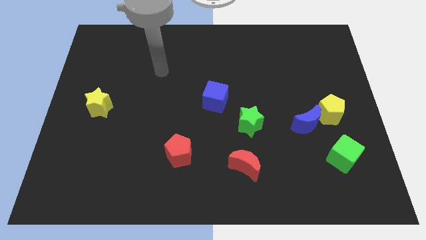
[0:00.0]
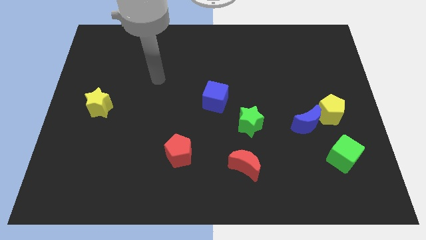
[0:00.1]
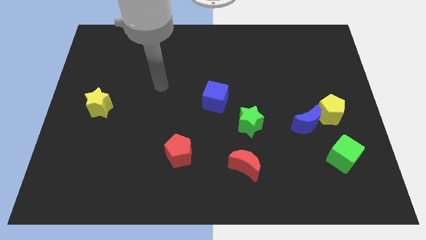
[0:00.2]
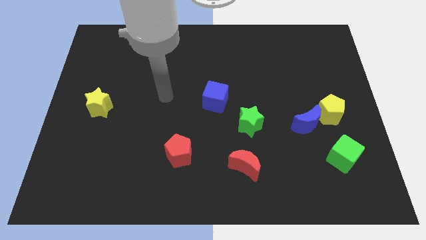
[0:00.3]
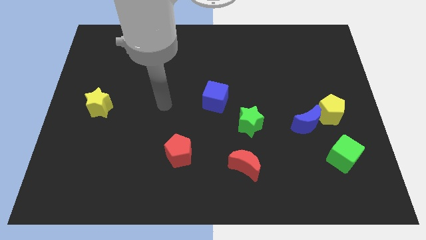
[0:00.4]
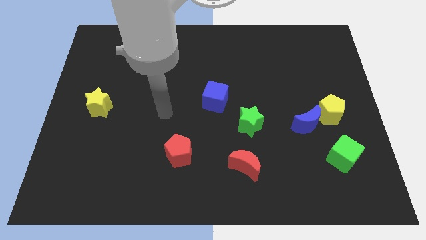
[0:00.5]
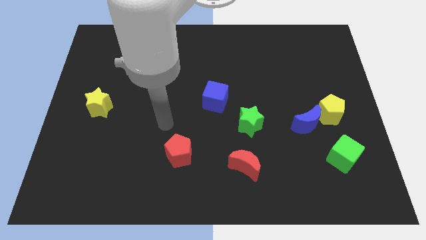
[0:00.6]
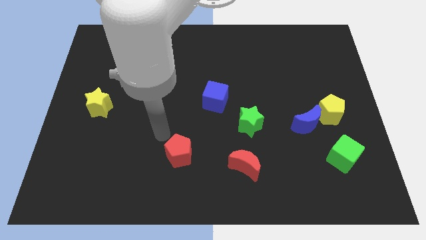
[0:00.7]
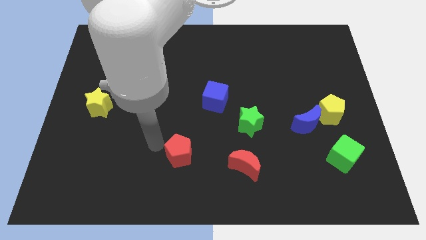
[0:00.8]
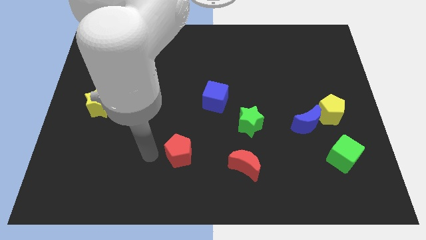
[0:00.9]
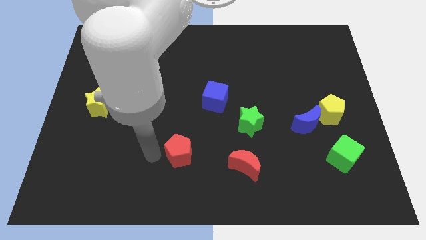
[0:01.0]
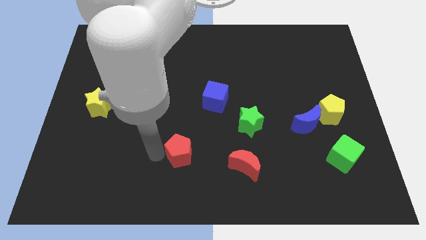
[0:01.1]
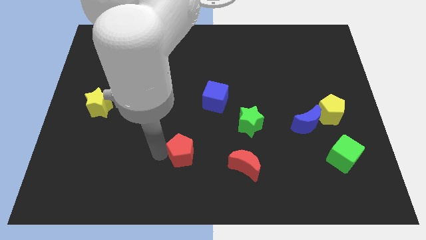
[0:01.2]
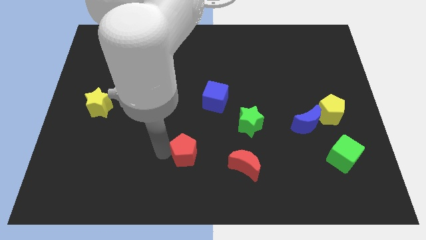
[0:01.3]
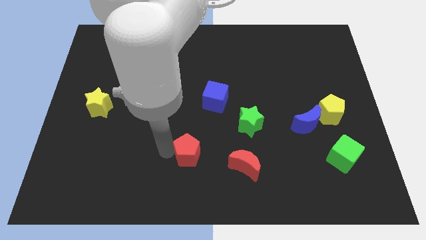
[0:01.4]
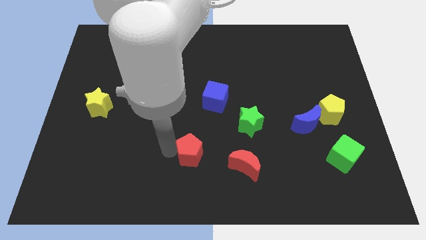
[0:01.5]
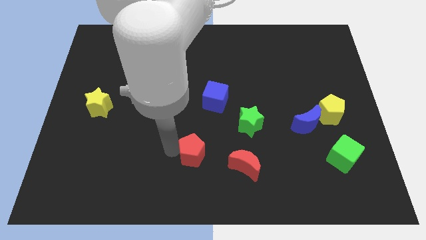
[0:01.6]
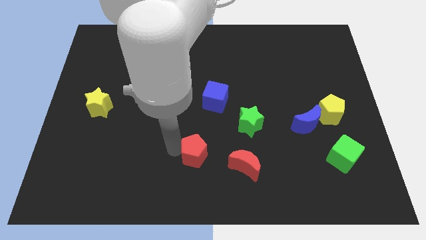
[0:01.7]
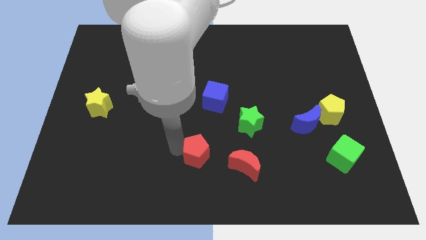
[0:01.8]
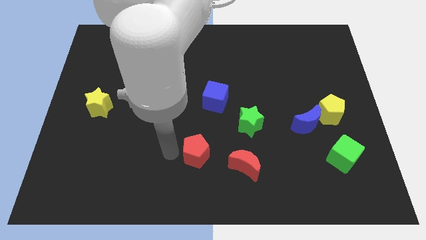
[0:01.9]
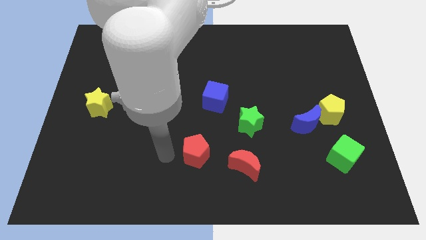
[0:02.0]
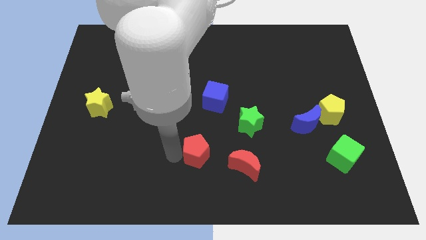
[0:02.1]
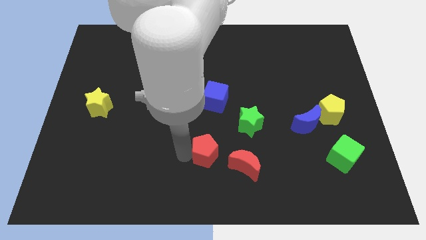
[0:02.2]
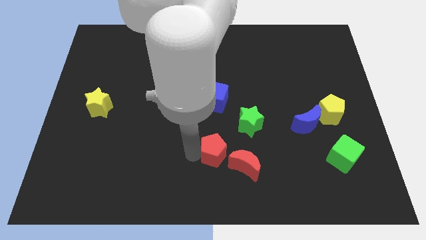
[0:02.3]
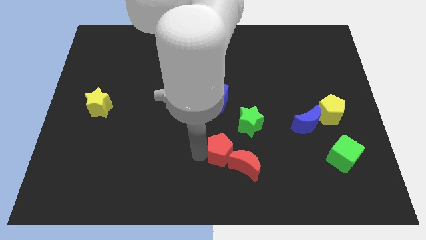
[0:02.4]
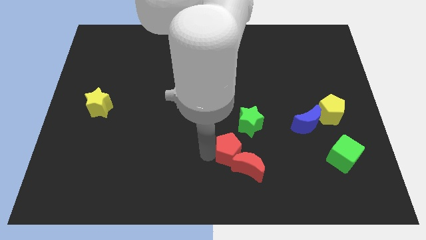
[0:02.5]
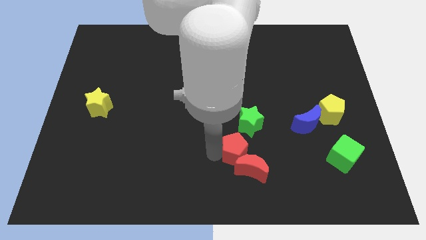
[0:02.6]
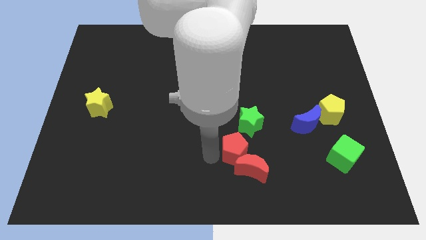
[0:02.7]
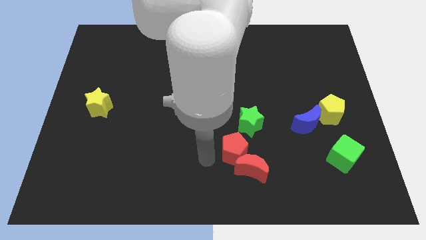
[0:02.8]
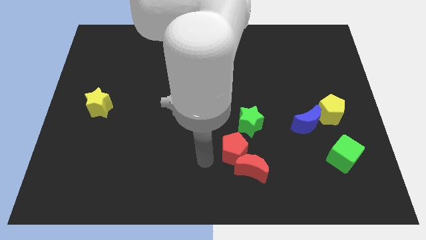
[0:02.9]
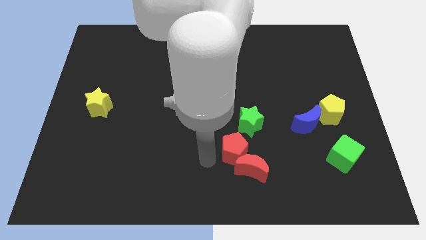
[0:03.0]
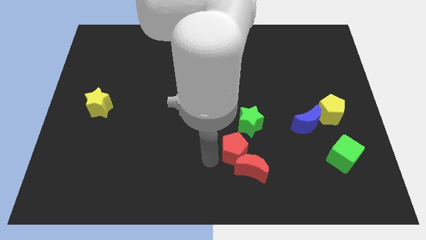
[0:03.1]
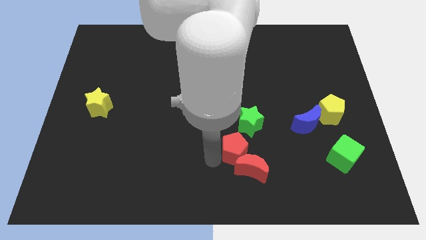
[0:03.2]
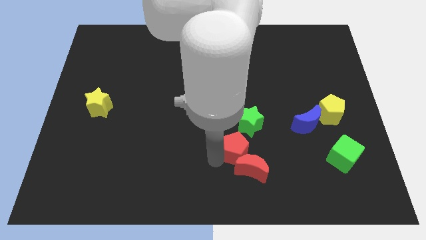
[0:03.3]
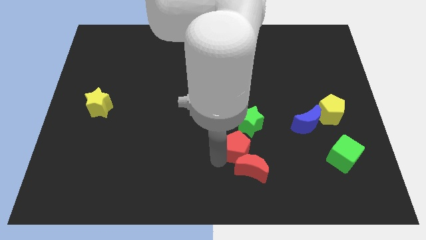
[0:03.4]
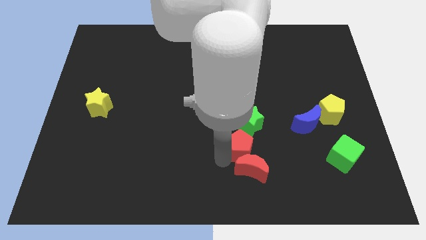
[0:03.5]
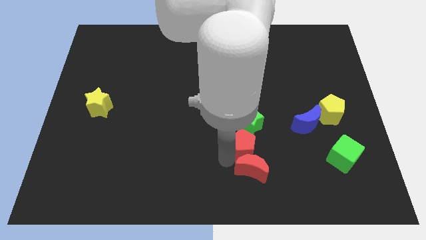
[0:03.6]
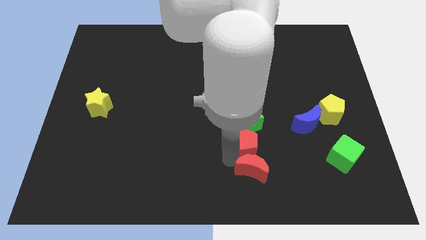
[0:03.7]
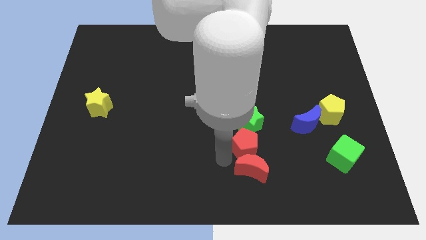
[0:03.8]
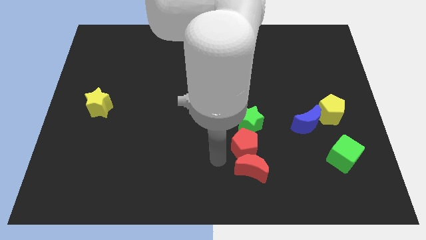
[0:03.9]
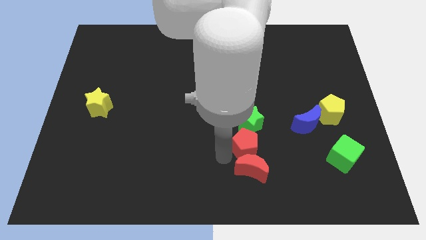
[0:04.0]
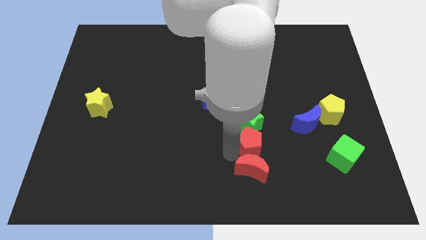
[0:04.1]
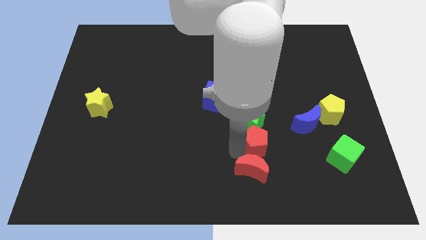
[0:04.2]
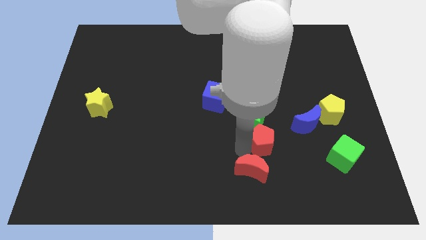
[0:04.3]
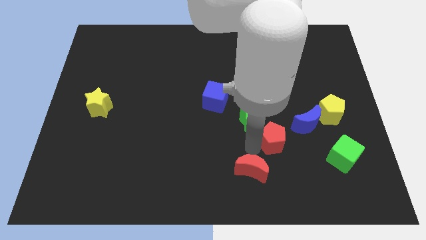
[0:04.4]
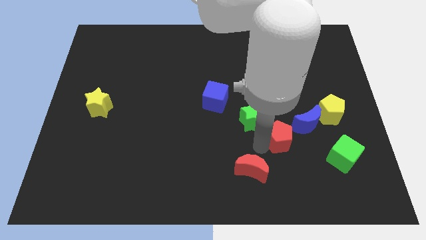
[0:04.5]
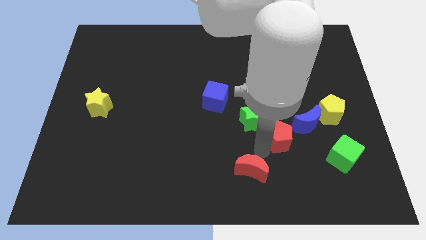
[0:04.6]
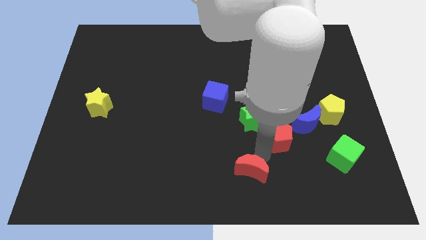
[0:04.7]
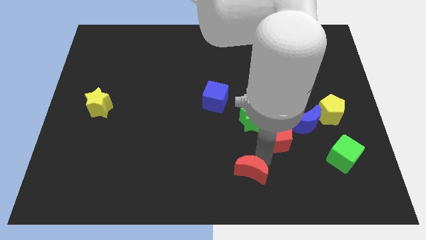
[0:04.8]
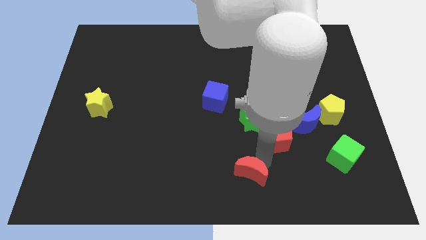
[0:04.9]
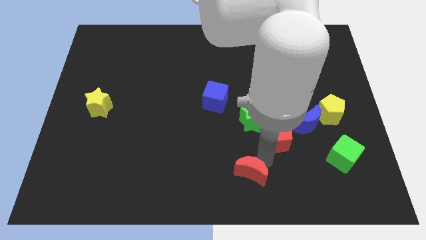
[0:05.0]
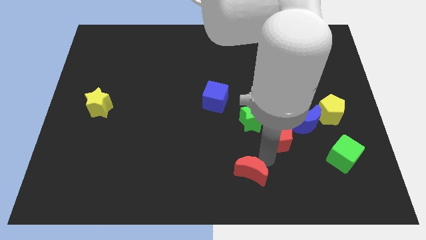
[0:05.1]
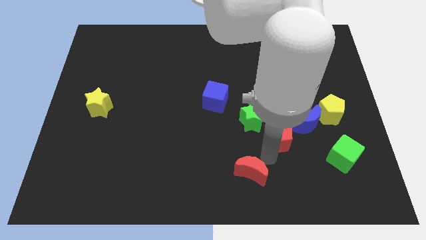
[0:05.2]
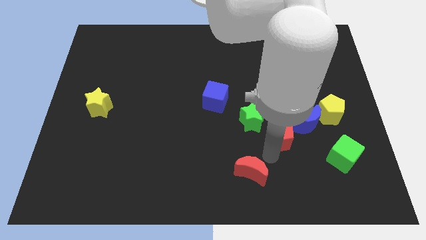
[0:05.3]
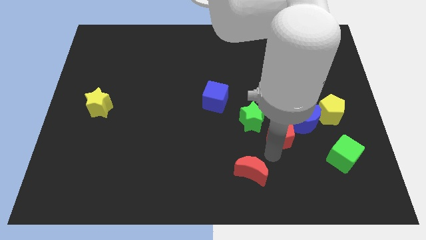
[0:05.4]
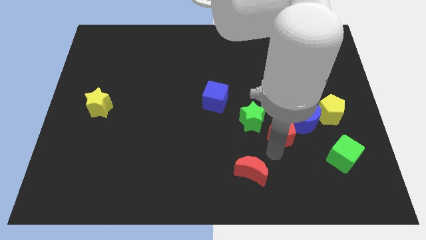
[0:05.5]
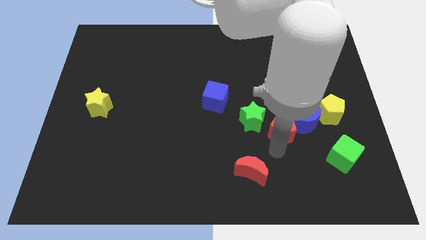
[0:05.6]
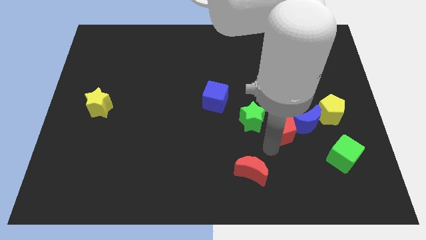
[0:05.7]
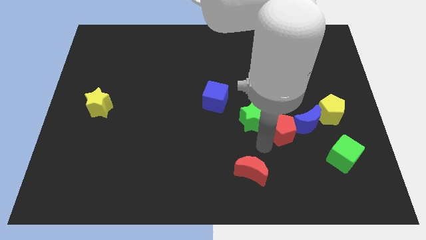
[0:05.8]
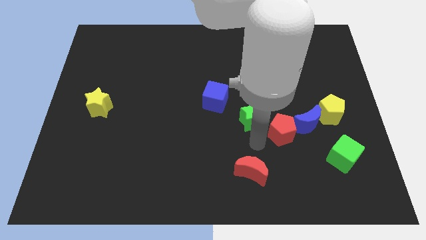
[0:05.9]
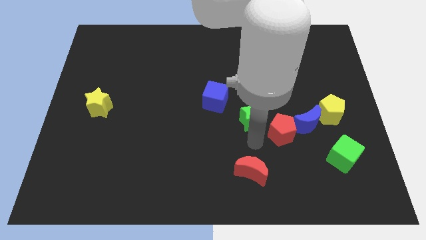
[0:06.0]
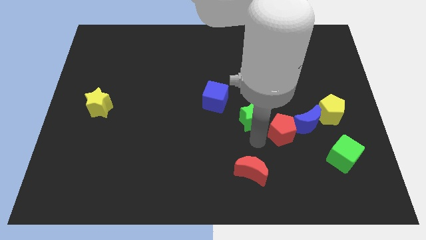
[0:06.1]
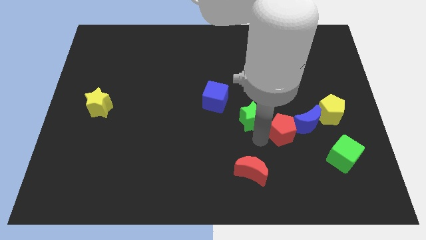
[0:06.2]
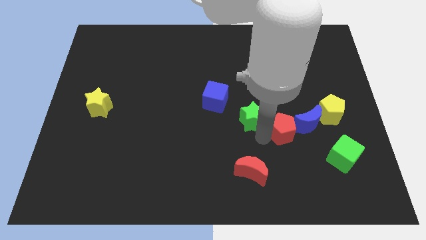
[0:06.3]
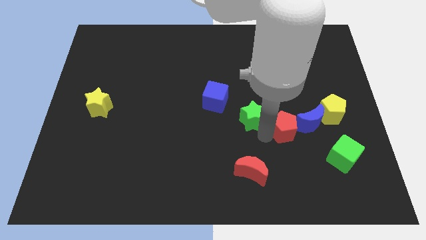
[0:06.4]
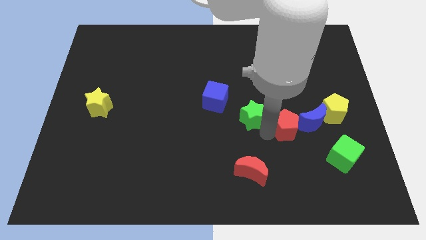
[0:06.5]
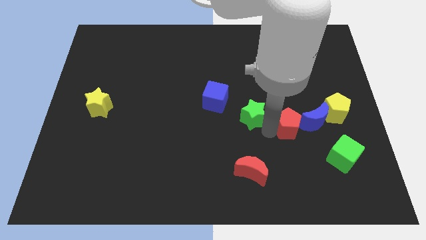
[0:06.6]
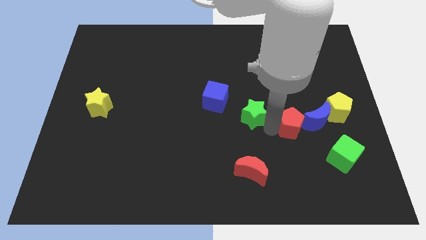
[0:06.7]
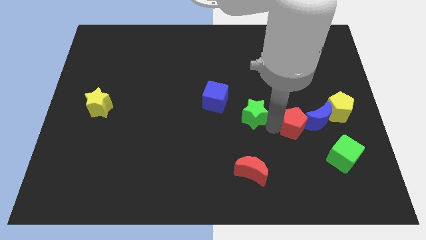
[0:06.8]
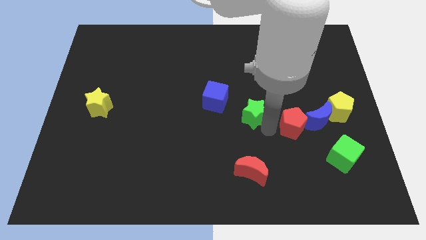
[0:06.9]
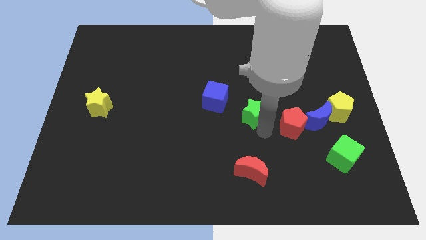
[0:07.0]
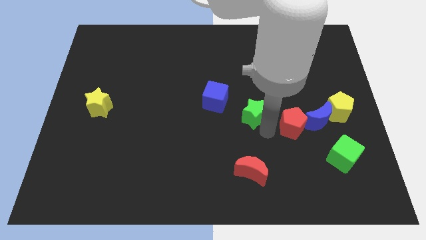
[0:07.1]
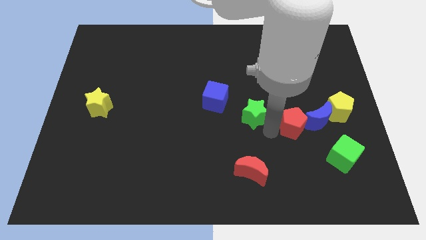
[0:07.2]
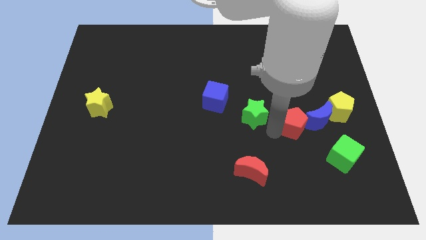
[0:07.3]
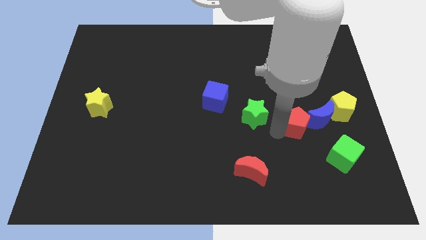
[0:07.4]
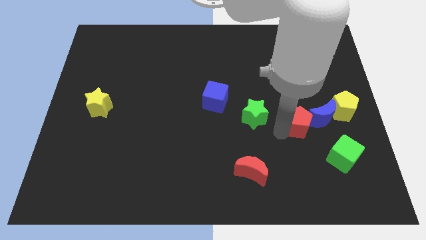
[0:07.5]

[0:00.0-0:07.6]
move the red pentagon next to the blue moon
